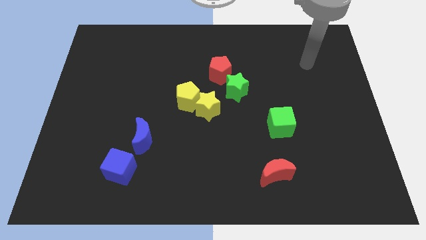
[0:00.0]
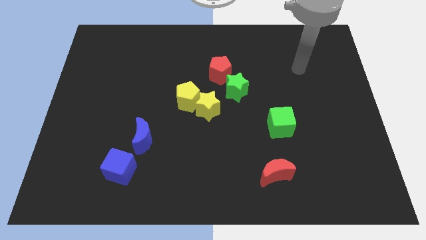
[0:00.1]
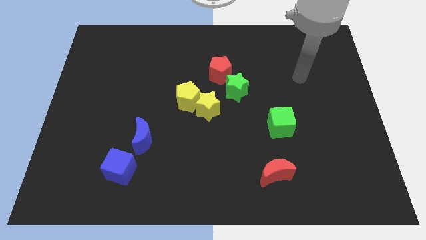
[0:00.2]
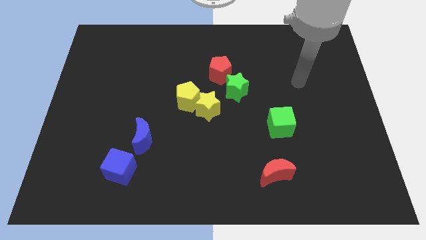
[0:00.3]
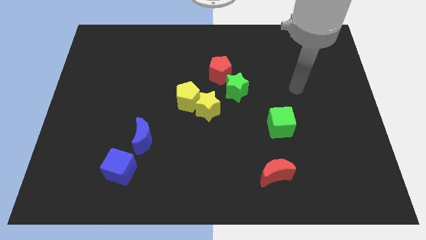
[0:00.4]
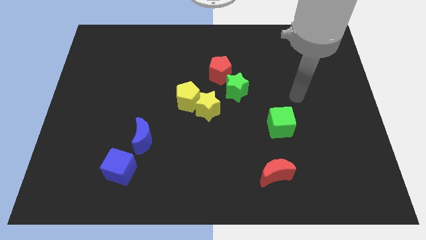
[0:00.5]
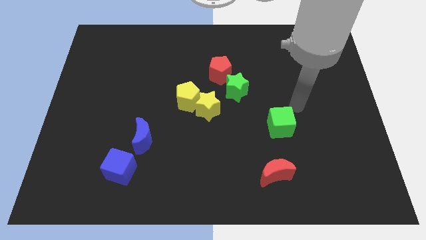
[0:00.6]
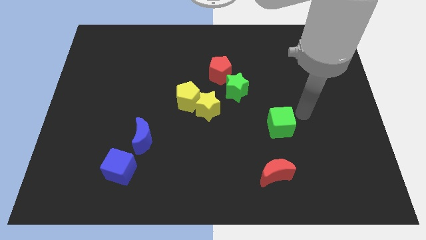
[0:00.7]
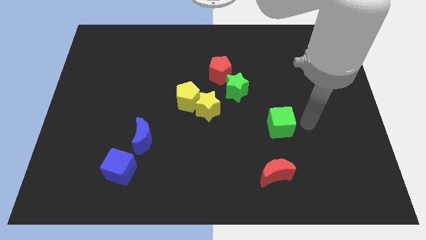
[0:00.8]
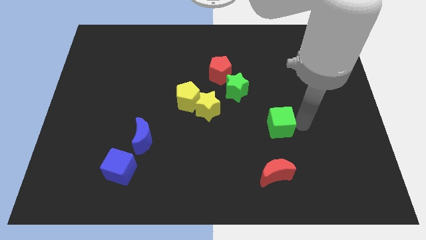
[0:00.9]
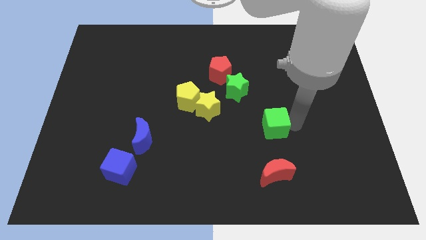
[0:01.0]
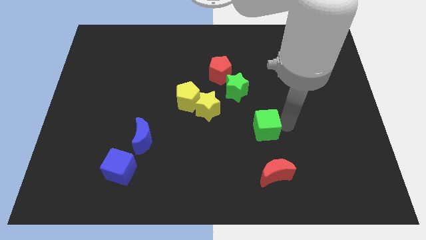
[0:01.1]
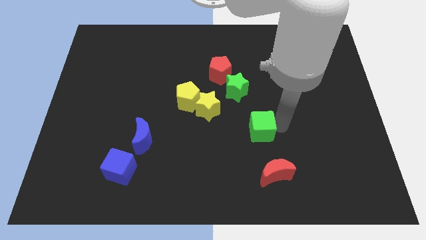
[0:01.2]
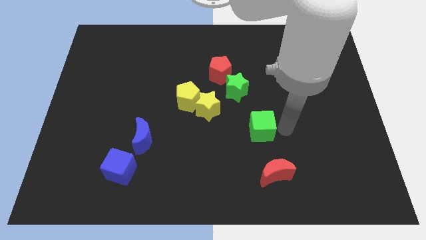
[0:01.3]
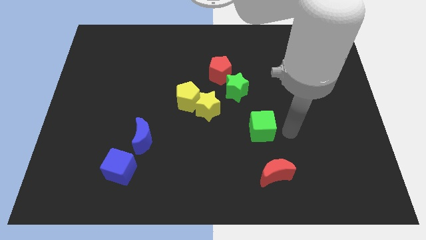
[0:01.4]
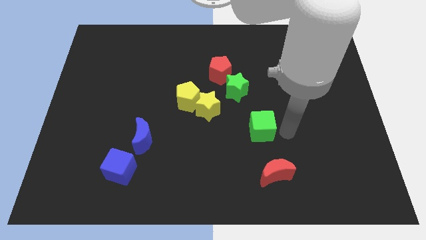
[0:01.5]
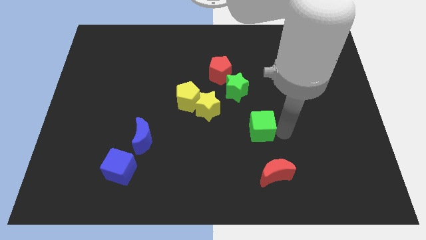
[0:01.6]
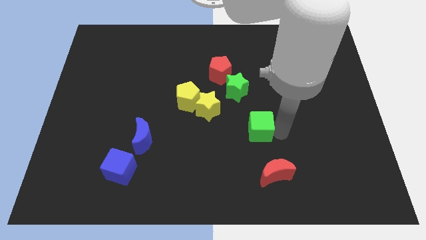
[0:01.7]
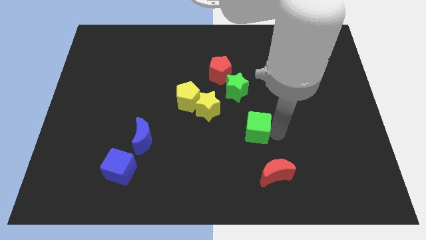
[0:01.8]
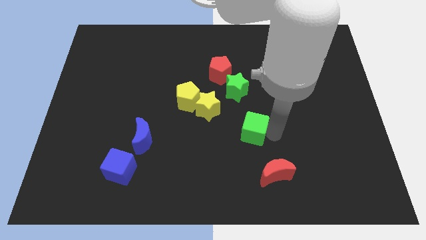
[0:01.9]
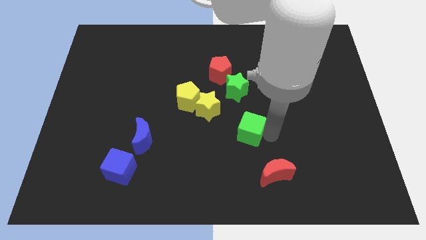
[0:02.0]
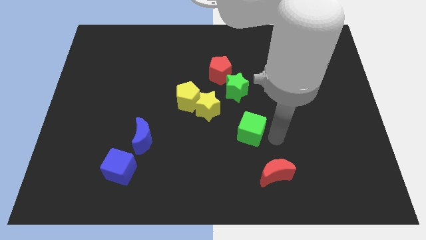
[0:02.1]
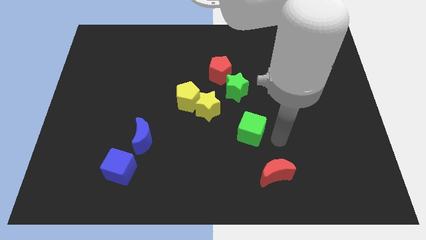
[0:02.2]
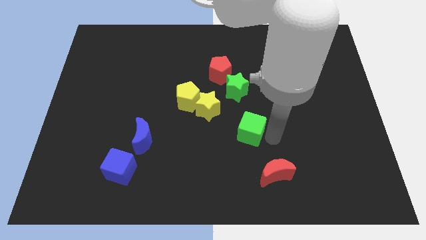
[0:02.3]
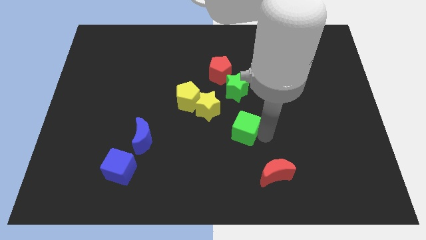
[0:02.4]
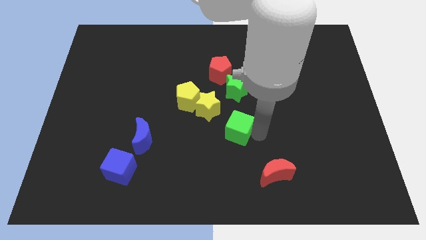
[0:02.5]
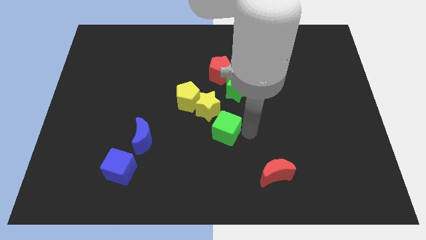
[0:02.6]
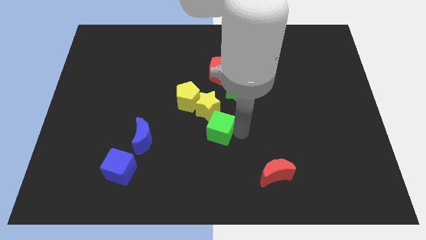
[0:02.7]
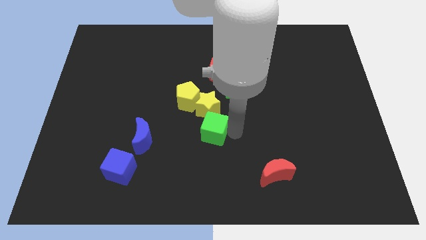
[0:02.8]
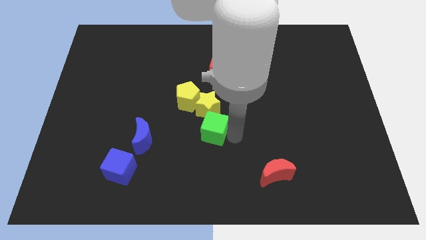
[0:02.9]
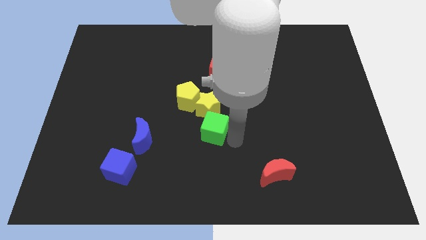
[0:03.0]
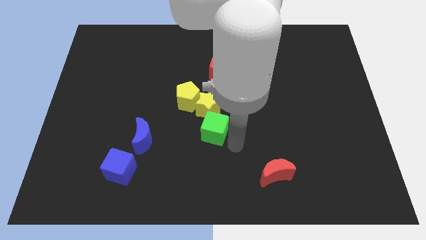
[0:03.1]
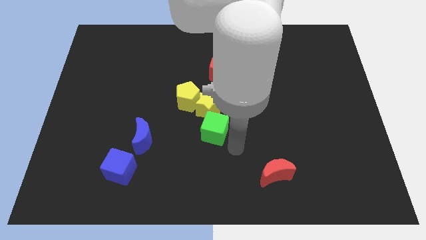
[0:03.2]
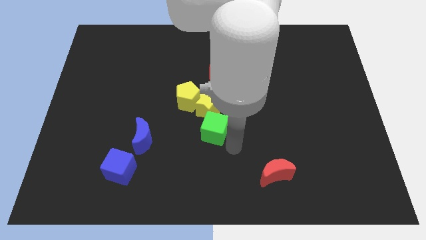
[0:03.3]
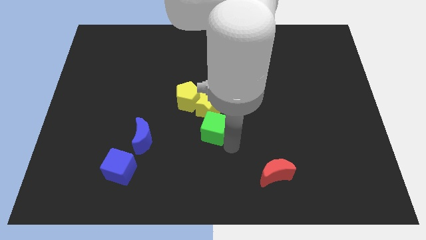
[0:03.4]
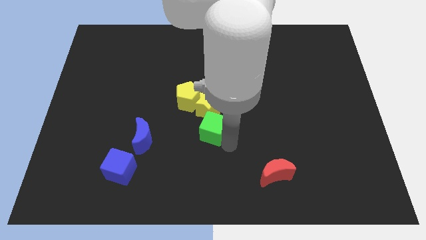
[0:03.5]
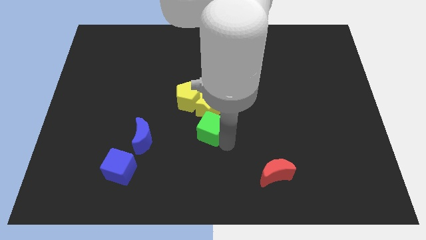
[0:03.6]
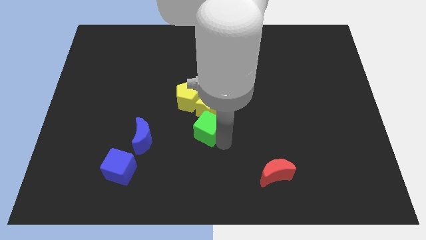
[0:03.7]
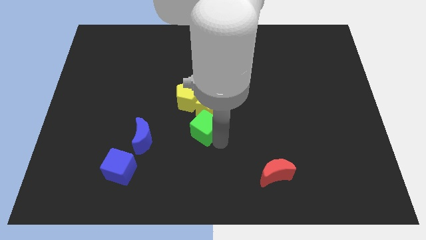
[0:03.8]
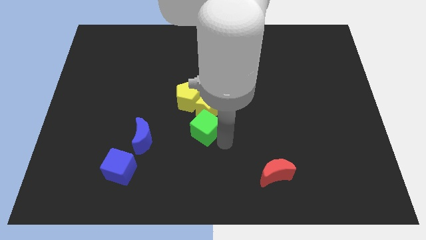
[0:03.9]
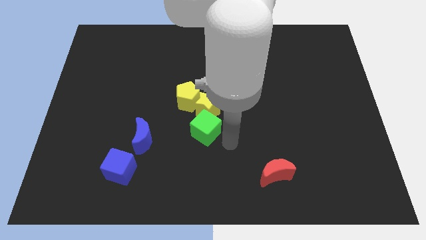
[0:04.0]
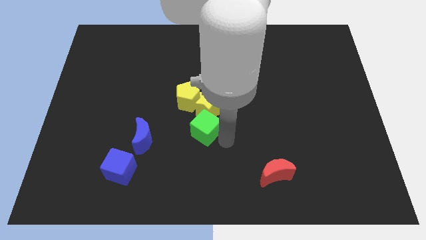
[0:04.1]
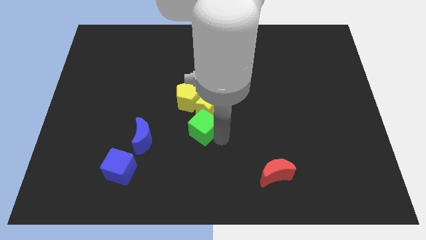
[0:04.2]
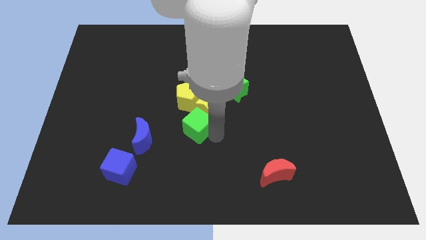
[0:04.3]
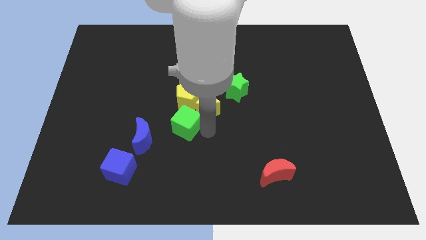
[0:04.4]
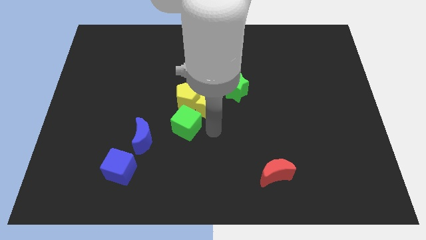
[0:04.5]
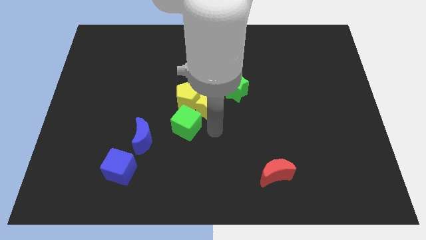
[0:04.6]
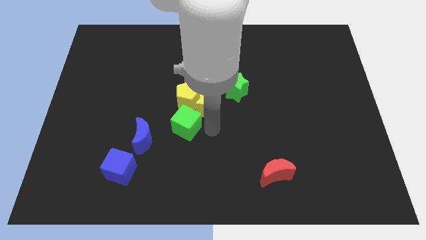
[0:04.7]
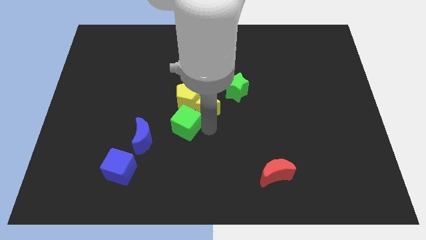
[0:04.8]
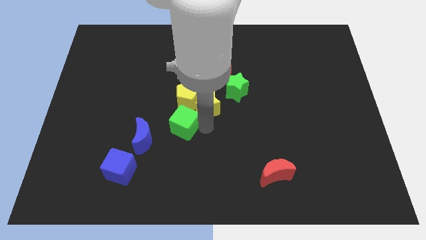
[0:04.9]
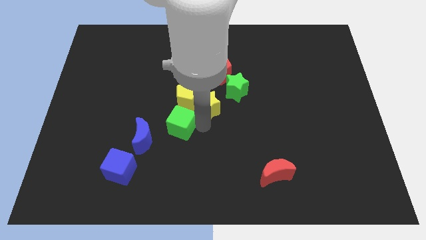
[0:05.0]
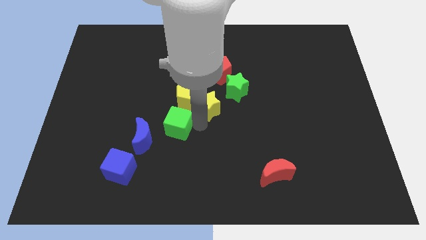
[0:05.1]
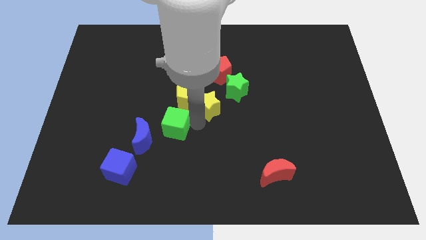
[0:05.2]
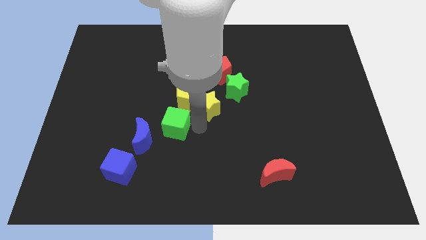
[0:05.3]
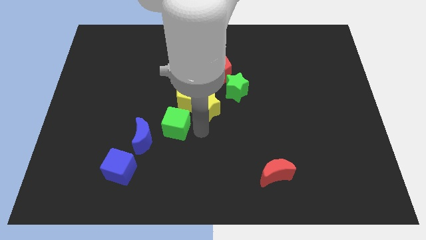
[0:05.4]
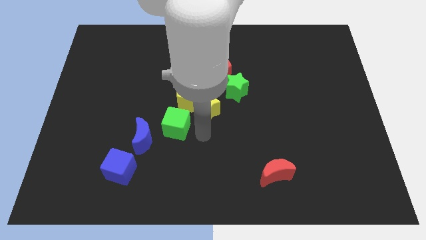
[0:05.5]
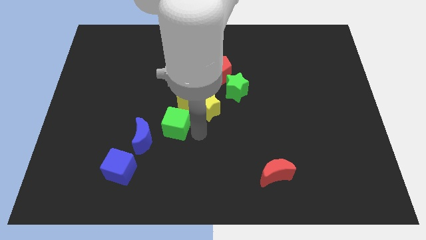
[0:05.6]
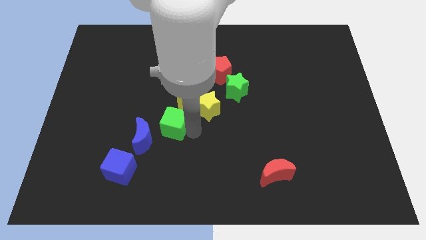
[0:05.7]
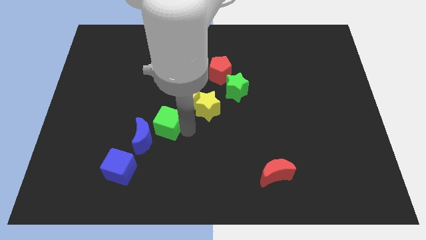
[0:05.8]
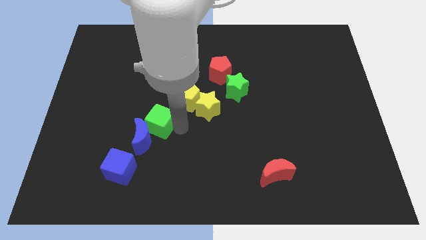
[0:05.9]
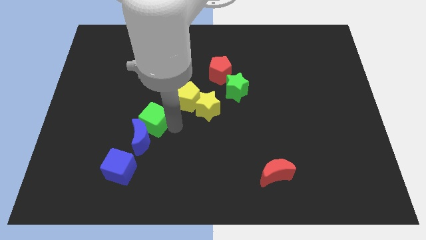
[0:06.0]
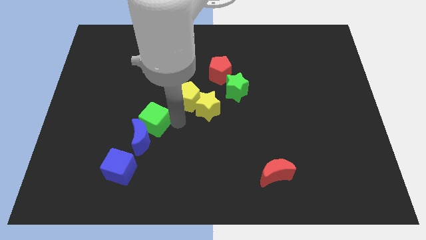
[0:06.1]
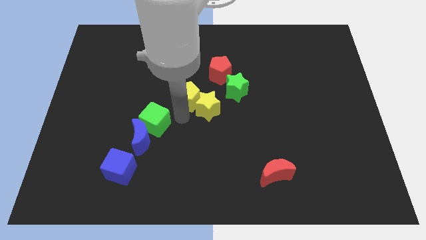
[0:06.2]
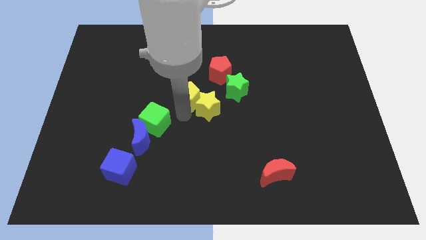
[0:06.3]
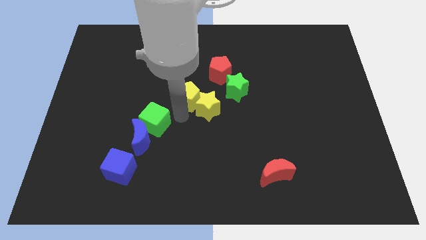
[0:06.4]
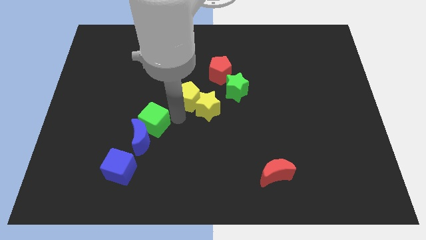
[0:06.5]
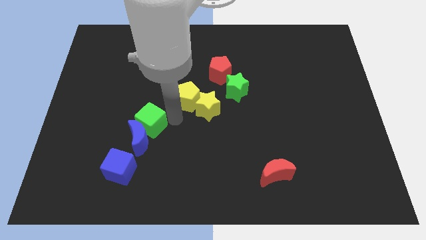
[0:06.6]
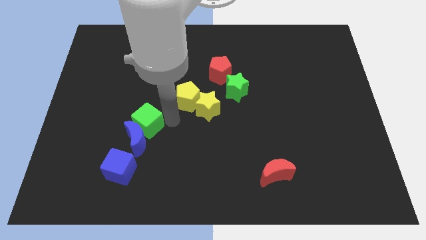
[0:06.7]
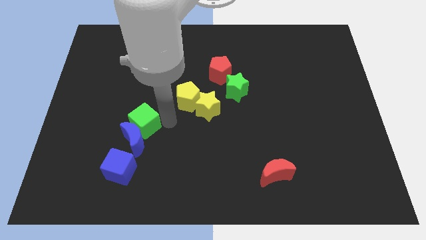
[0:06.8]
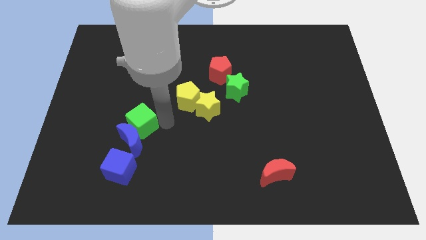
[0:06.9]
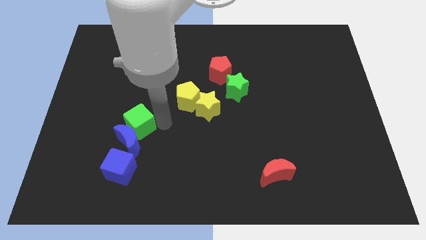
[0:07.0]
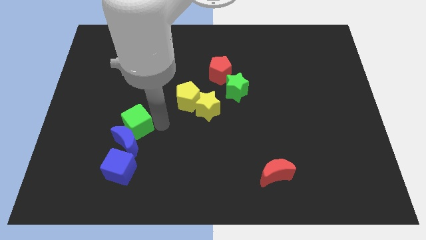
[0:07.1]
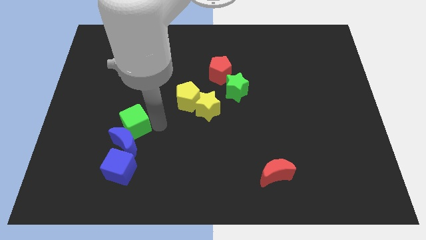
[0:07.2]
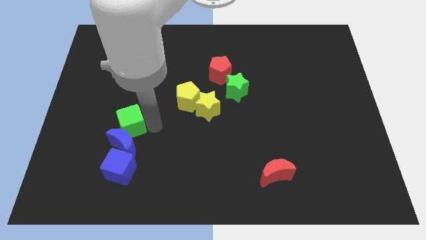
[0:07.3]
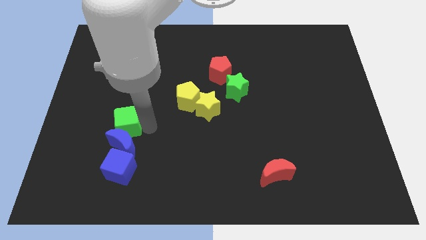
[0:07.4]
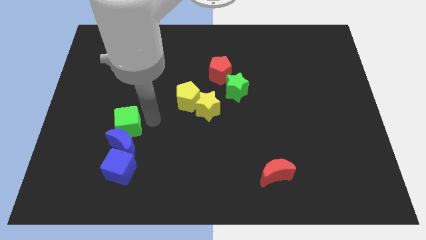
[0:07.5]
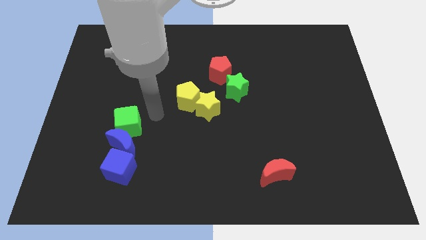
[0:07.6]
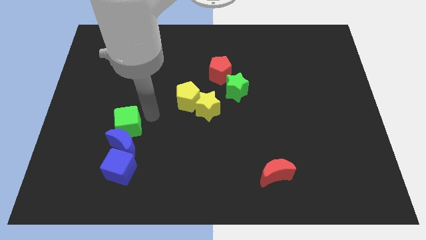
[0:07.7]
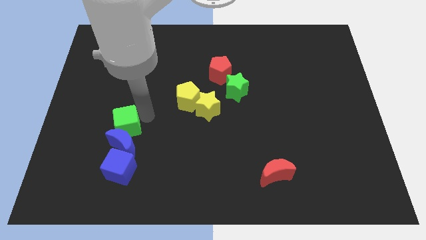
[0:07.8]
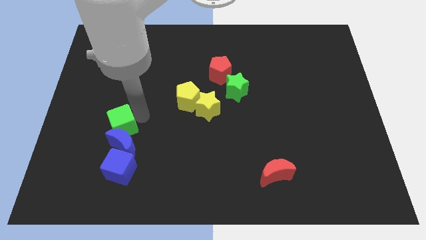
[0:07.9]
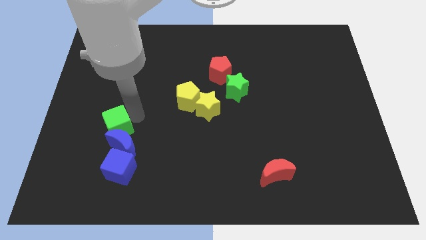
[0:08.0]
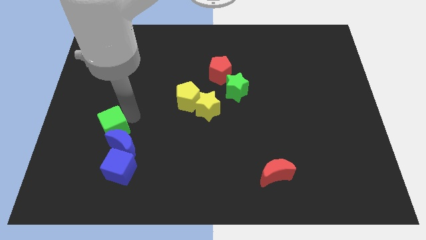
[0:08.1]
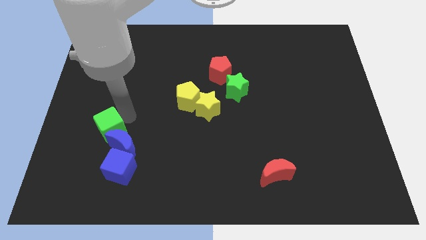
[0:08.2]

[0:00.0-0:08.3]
push the green cube left of the blue moon
